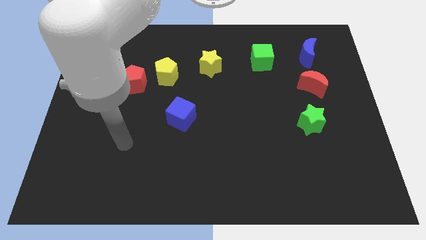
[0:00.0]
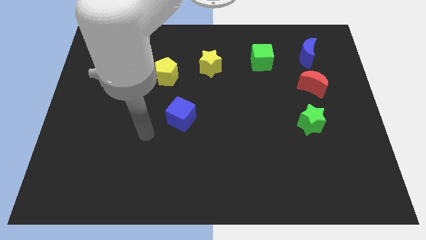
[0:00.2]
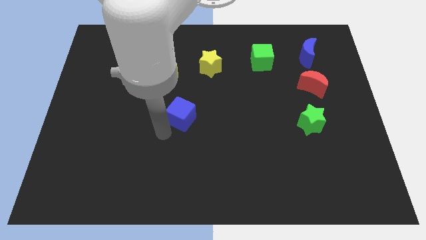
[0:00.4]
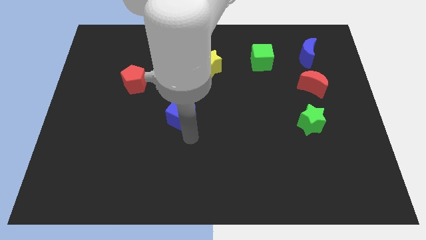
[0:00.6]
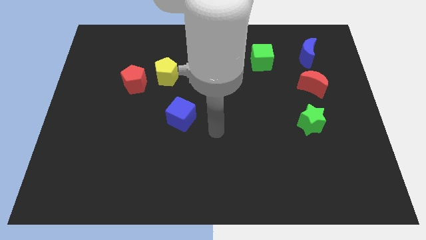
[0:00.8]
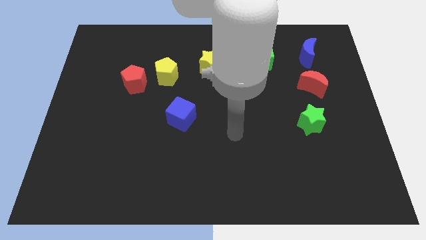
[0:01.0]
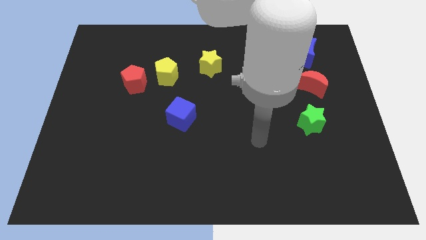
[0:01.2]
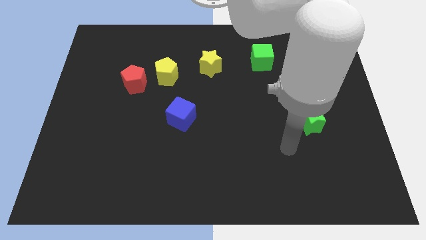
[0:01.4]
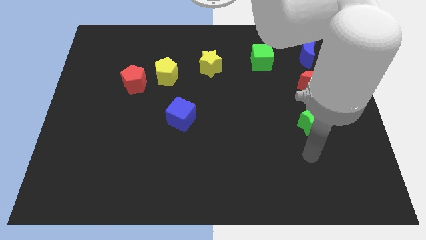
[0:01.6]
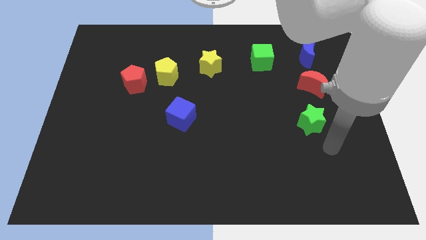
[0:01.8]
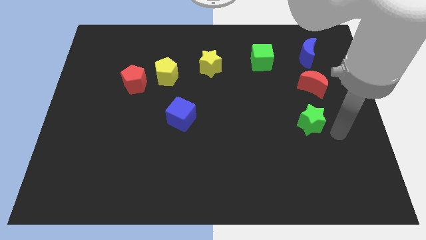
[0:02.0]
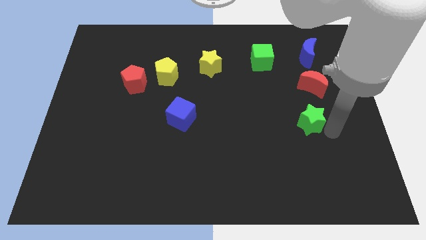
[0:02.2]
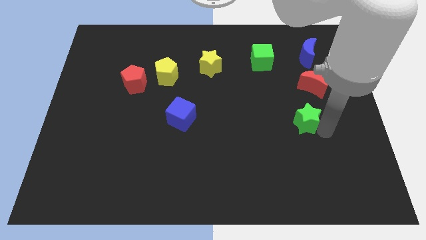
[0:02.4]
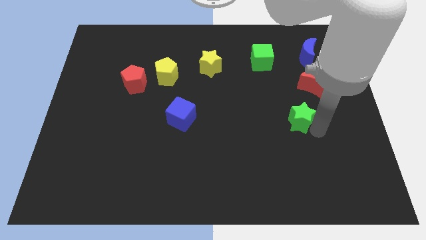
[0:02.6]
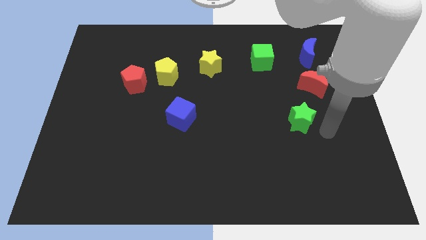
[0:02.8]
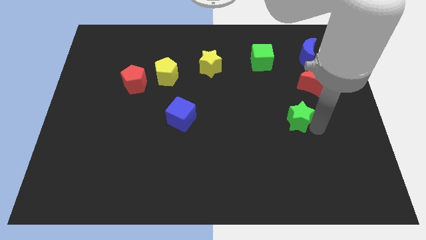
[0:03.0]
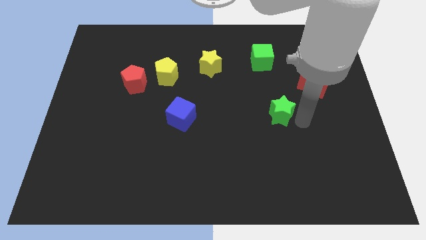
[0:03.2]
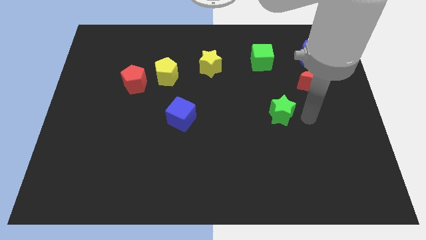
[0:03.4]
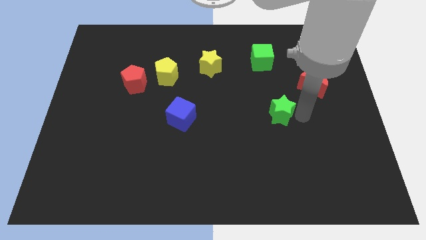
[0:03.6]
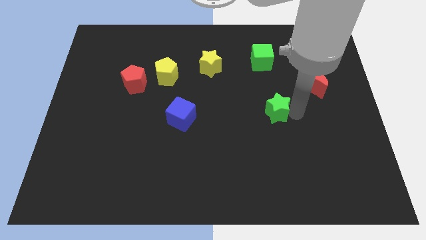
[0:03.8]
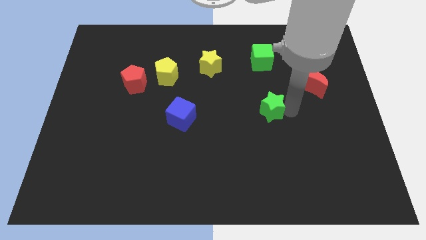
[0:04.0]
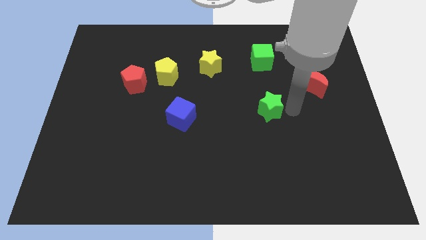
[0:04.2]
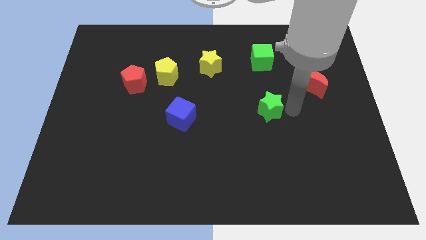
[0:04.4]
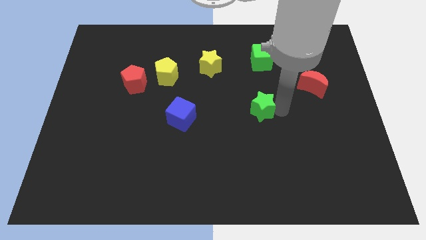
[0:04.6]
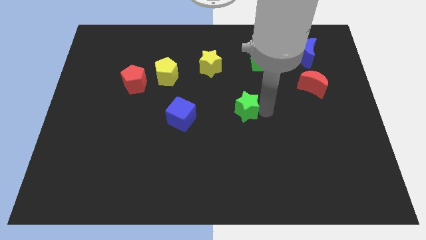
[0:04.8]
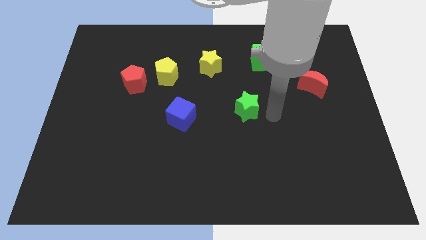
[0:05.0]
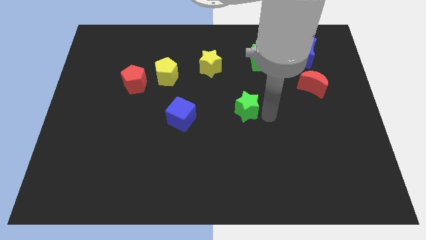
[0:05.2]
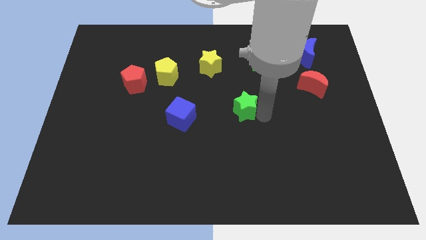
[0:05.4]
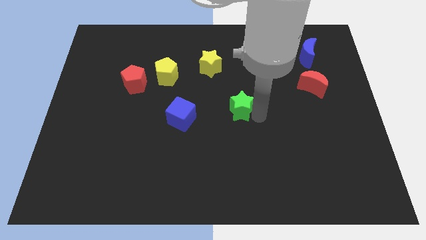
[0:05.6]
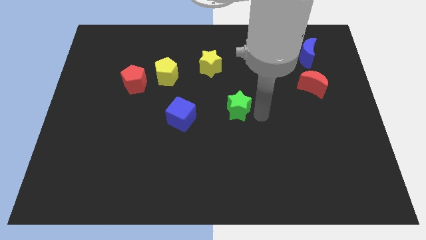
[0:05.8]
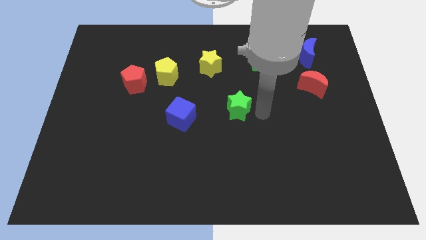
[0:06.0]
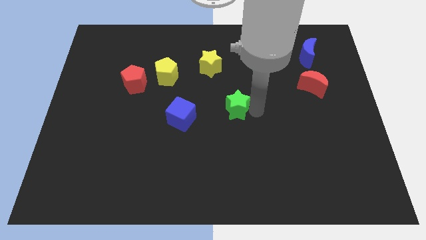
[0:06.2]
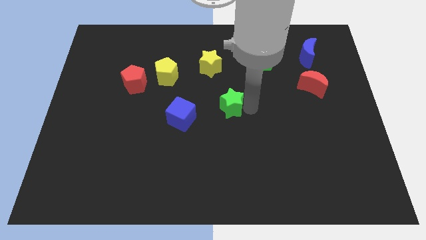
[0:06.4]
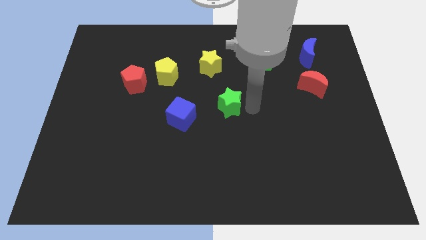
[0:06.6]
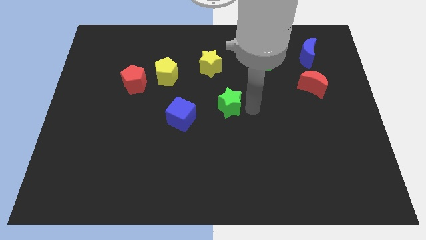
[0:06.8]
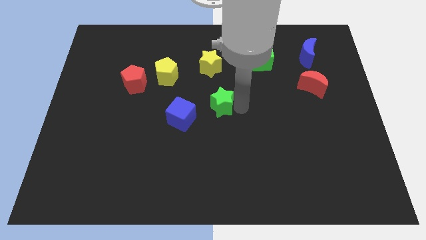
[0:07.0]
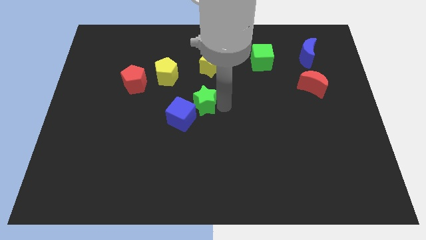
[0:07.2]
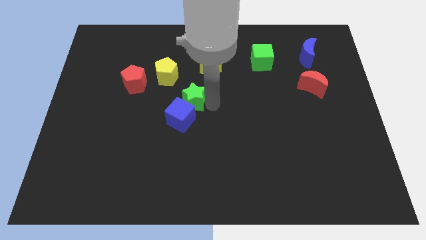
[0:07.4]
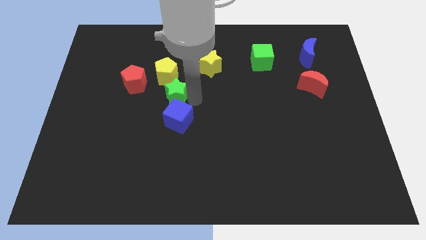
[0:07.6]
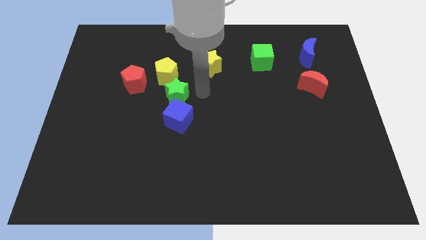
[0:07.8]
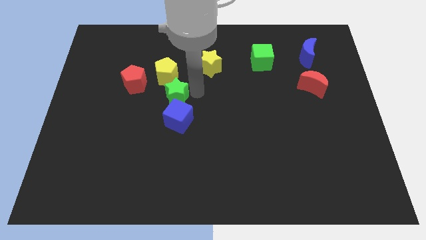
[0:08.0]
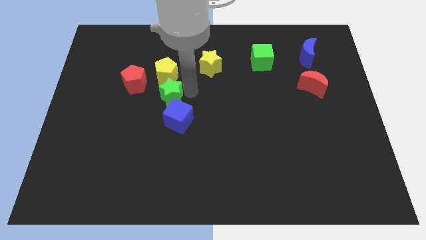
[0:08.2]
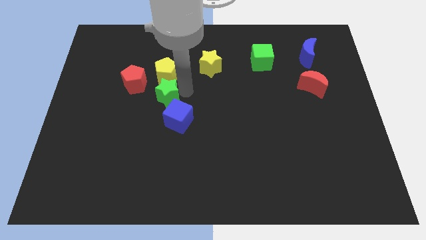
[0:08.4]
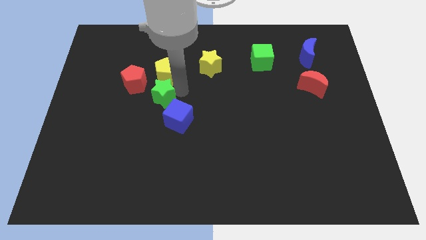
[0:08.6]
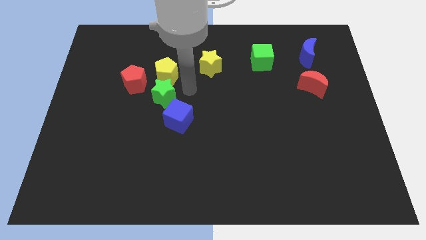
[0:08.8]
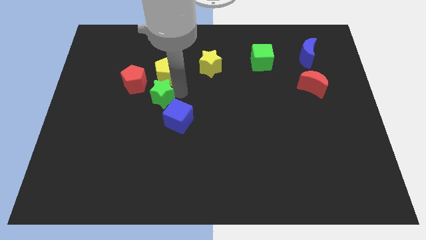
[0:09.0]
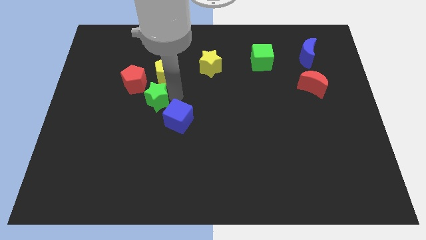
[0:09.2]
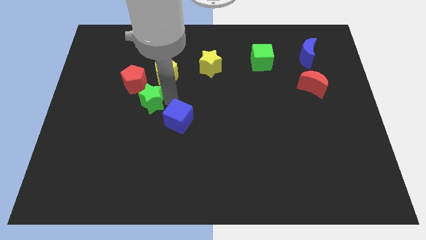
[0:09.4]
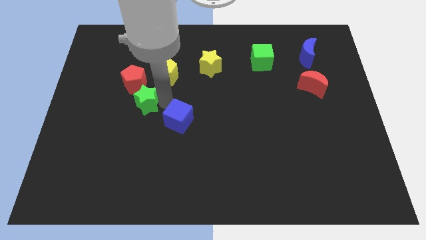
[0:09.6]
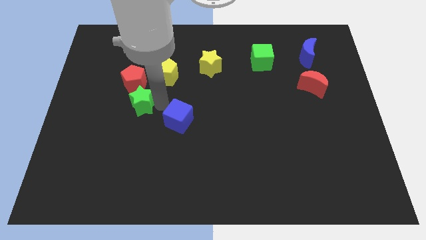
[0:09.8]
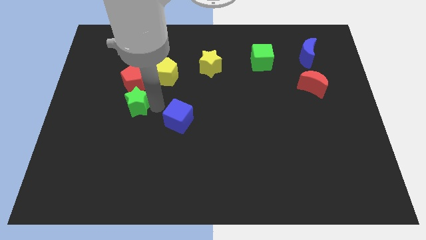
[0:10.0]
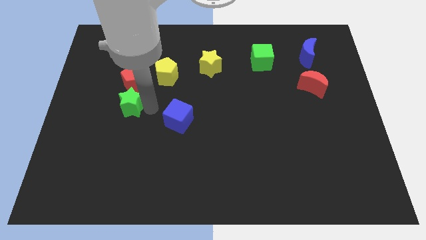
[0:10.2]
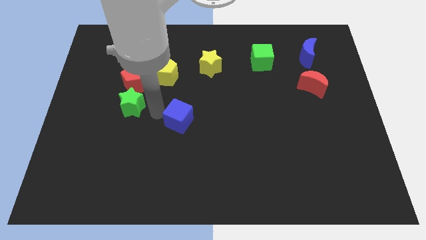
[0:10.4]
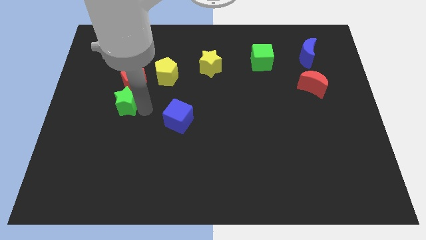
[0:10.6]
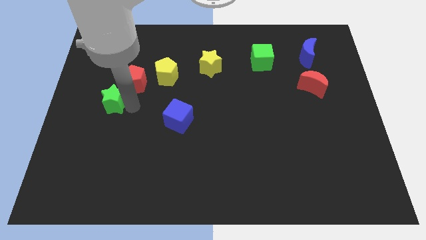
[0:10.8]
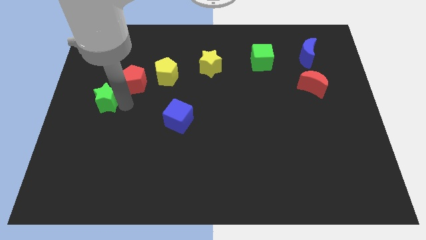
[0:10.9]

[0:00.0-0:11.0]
slide the green star to the center left

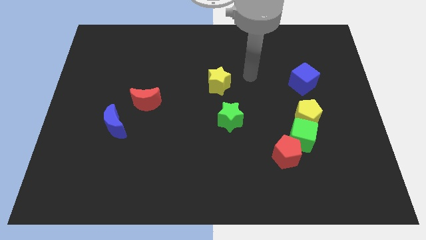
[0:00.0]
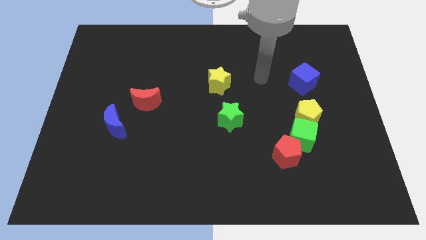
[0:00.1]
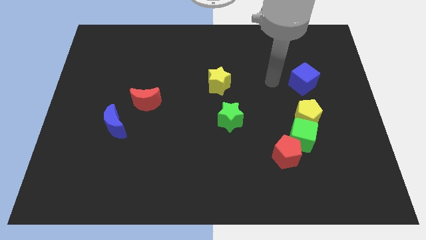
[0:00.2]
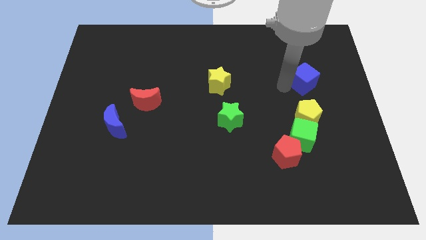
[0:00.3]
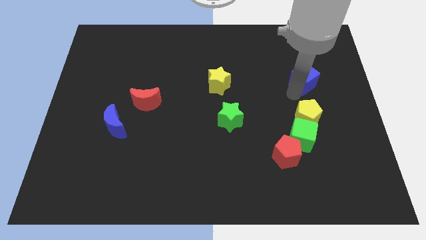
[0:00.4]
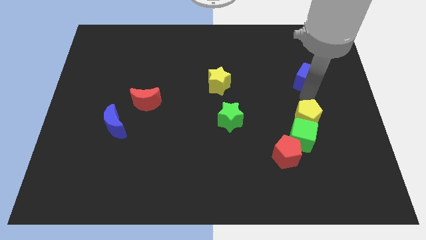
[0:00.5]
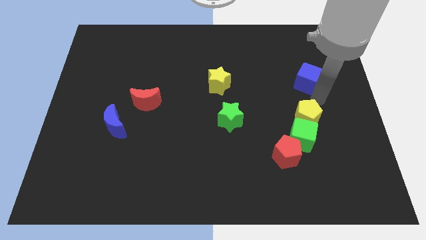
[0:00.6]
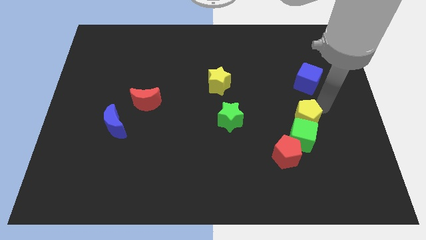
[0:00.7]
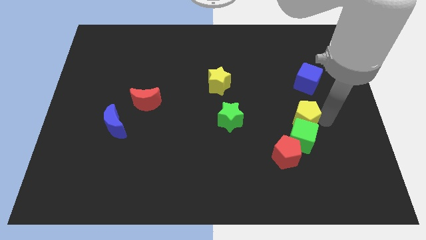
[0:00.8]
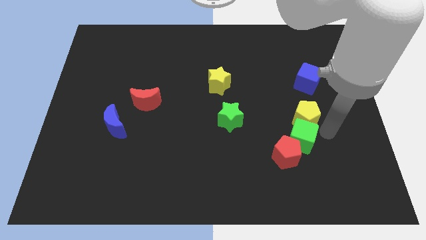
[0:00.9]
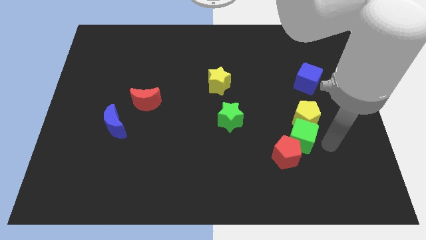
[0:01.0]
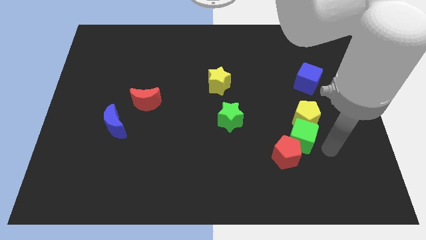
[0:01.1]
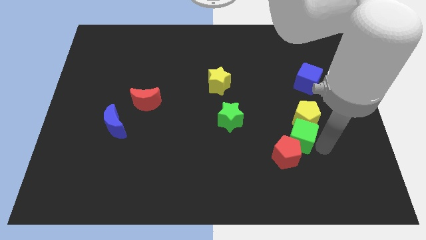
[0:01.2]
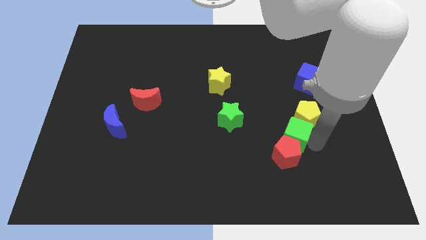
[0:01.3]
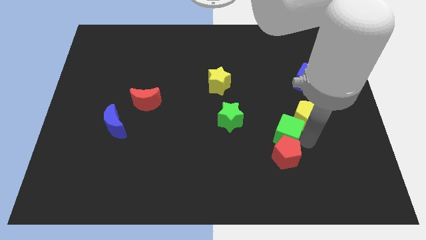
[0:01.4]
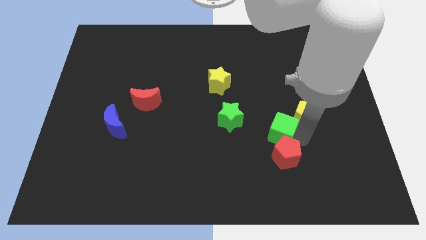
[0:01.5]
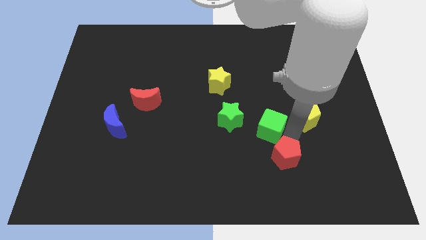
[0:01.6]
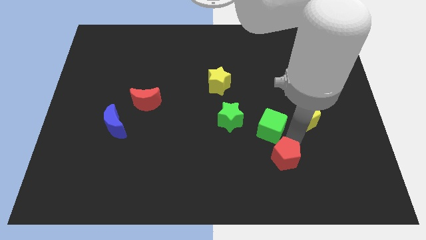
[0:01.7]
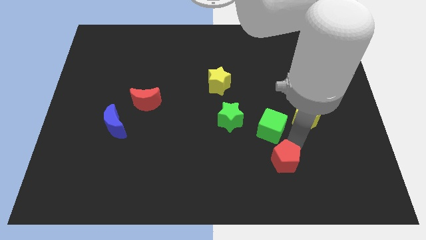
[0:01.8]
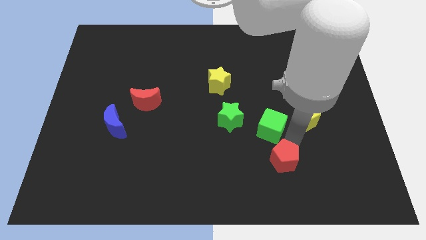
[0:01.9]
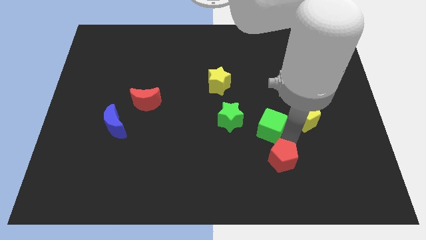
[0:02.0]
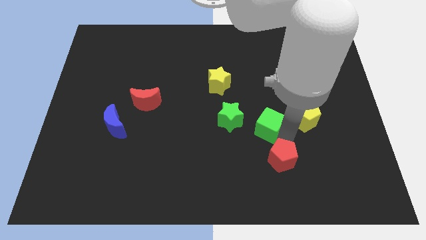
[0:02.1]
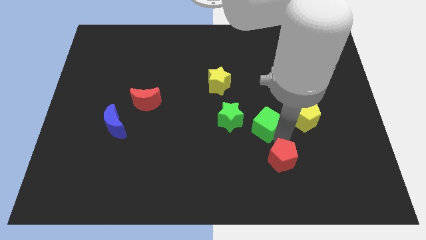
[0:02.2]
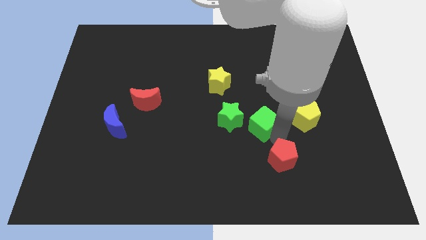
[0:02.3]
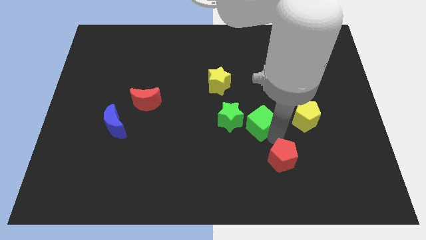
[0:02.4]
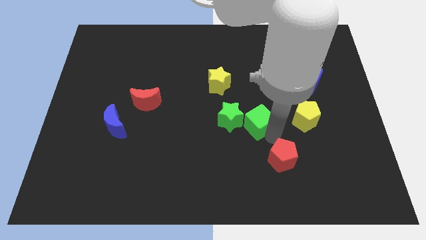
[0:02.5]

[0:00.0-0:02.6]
put the green cube to the middle of the board
